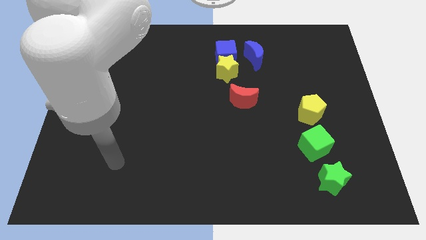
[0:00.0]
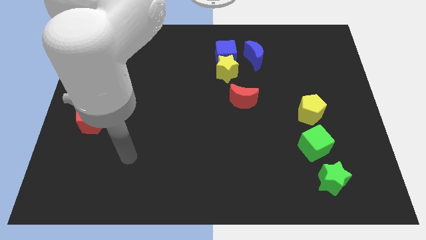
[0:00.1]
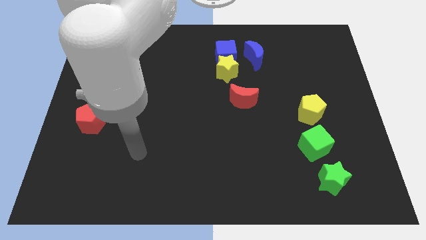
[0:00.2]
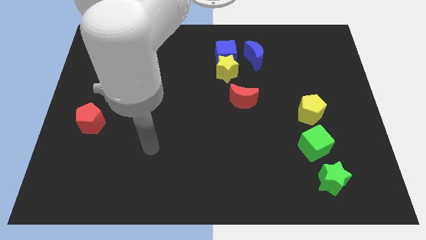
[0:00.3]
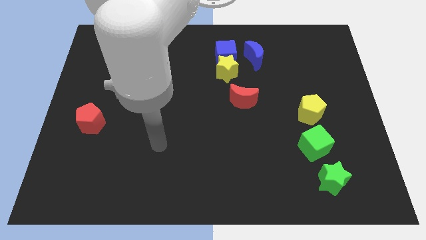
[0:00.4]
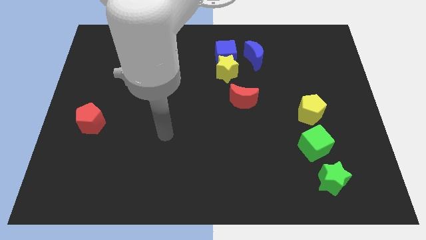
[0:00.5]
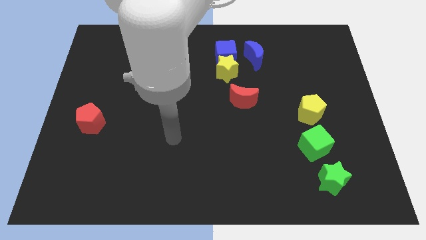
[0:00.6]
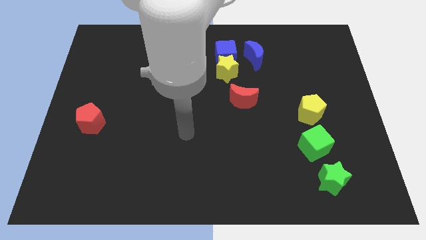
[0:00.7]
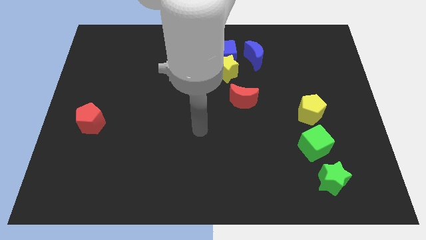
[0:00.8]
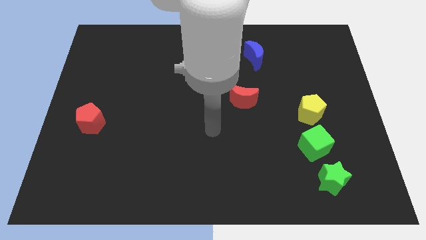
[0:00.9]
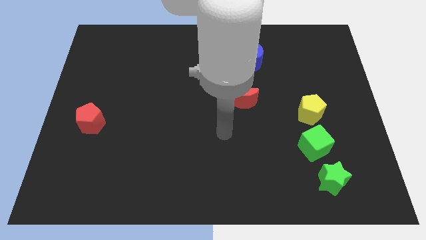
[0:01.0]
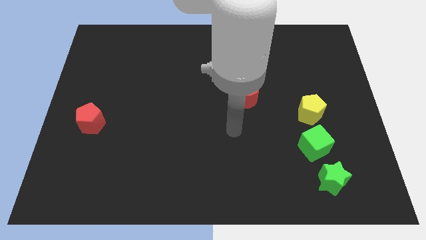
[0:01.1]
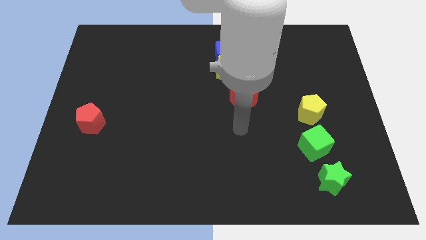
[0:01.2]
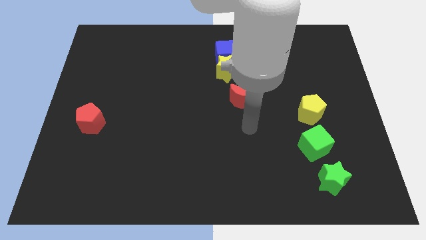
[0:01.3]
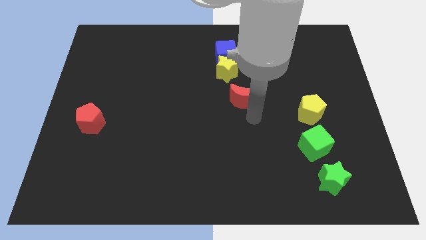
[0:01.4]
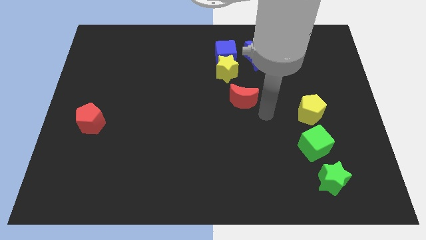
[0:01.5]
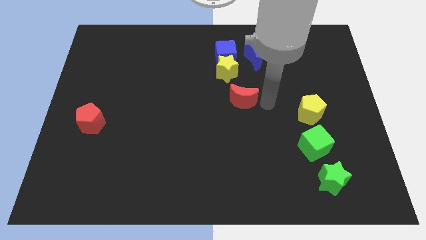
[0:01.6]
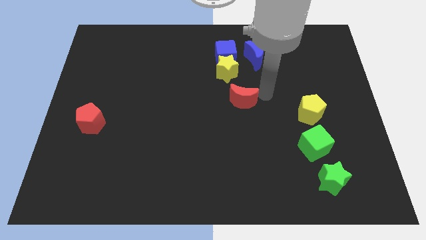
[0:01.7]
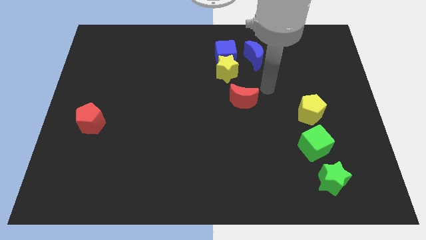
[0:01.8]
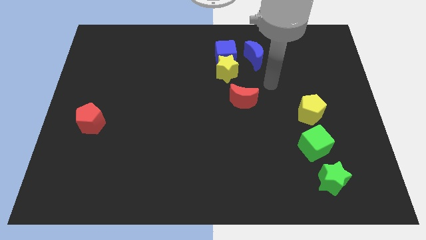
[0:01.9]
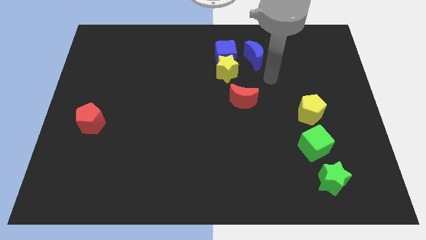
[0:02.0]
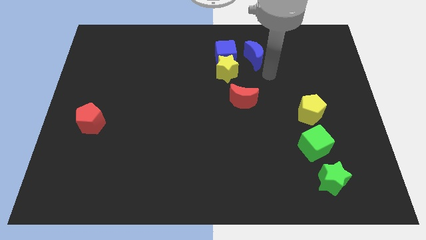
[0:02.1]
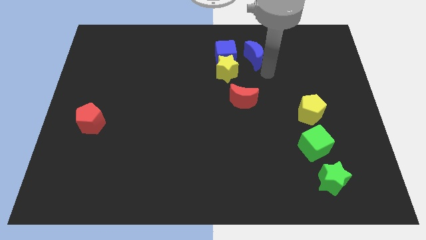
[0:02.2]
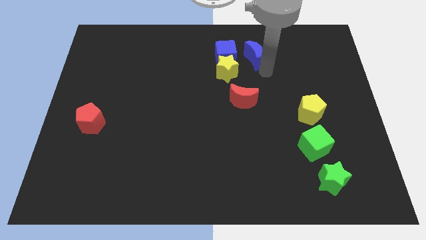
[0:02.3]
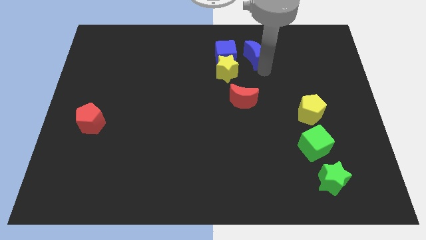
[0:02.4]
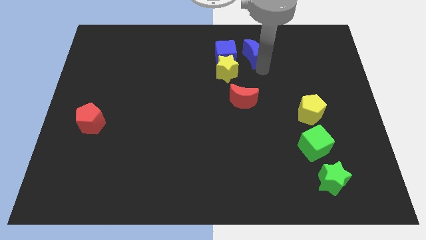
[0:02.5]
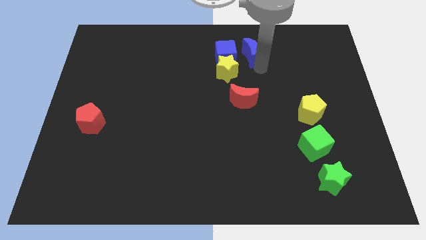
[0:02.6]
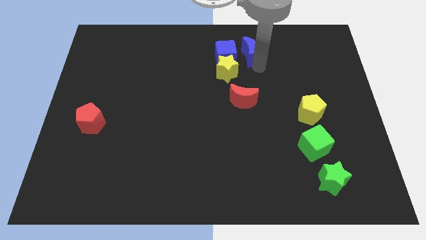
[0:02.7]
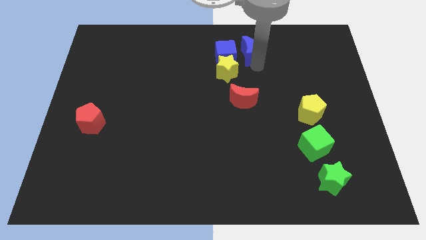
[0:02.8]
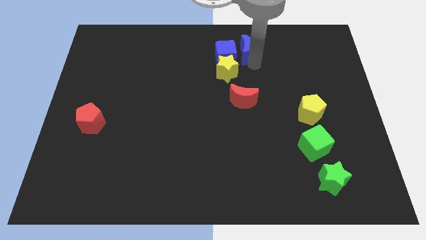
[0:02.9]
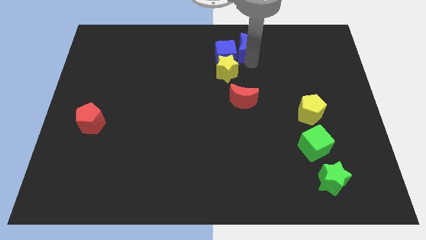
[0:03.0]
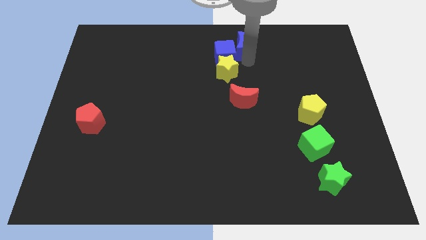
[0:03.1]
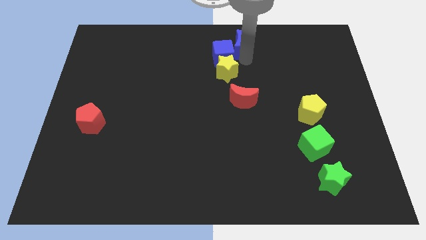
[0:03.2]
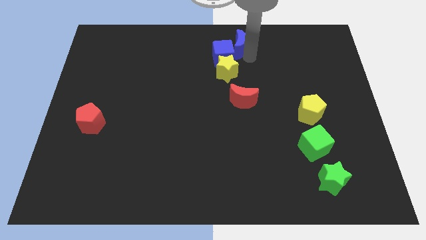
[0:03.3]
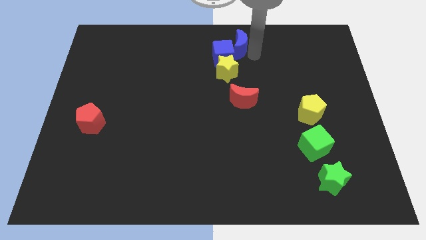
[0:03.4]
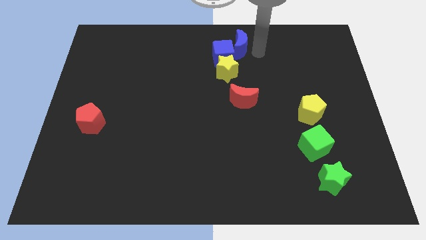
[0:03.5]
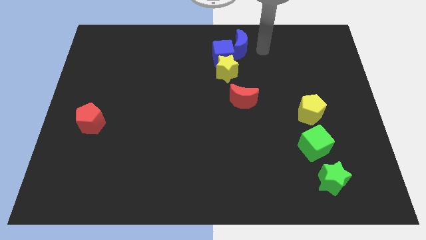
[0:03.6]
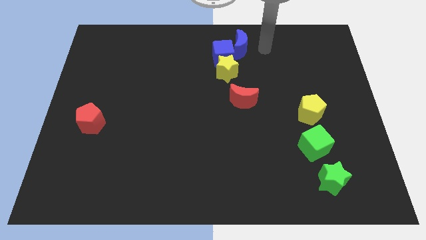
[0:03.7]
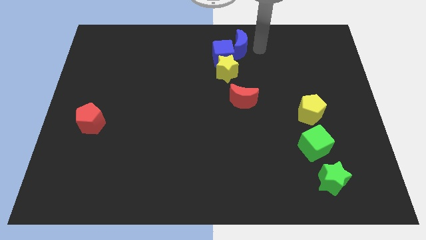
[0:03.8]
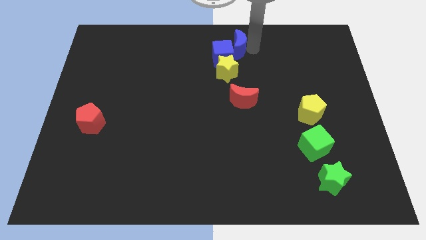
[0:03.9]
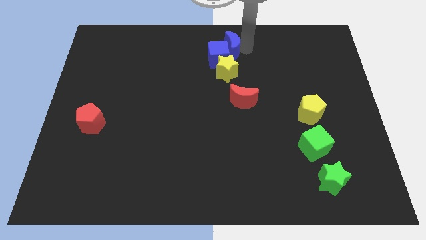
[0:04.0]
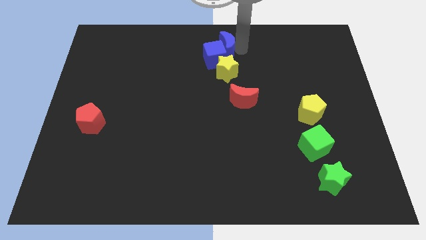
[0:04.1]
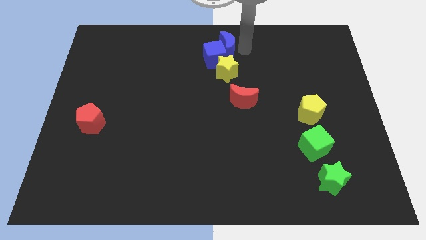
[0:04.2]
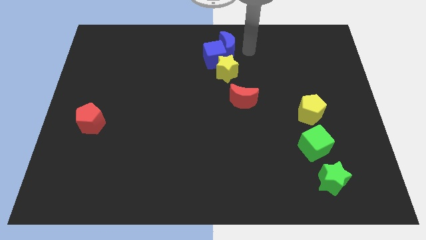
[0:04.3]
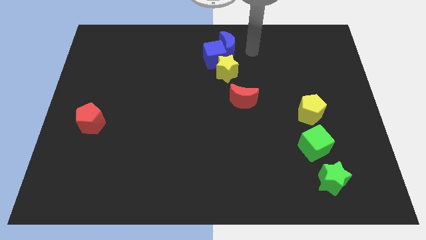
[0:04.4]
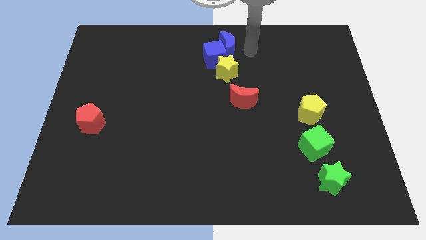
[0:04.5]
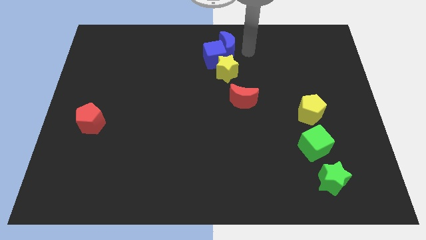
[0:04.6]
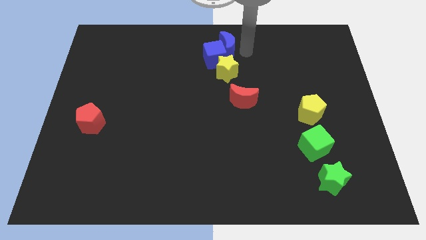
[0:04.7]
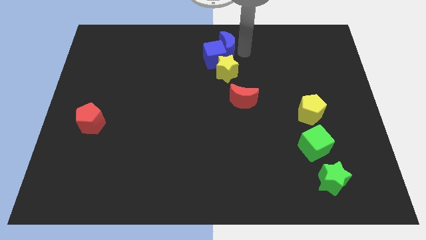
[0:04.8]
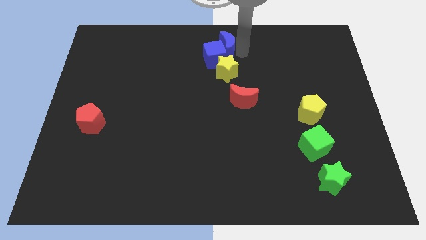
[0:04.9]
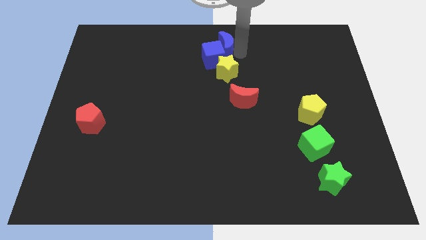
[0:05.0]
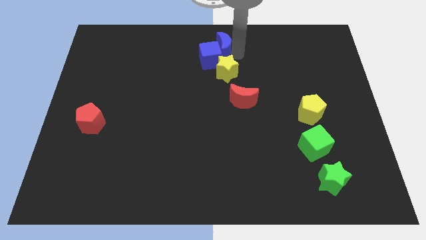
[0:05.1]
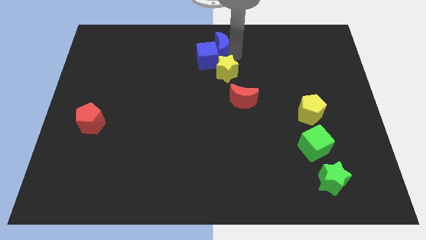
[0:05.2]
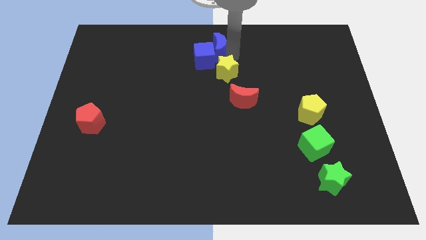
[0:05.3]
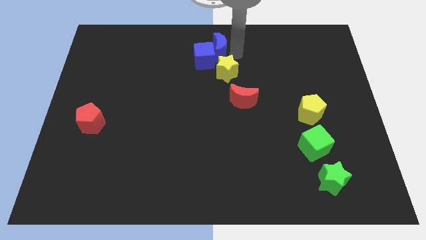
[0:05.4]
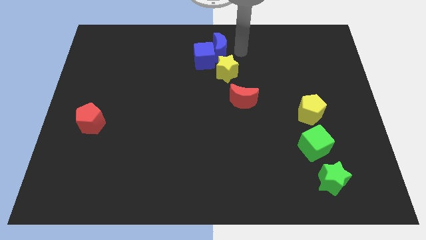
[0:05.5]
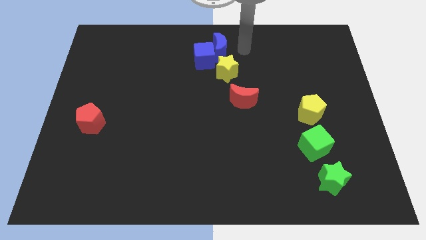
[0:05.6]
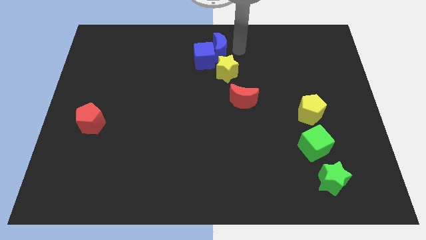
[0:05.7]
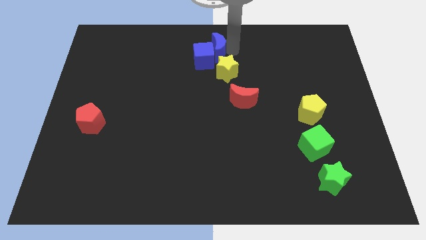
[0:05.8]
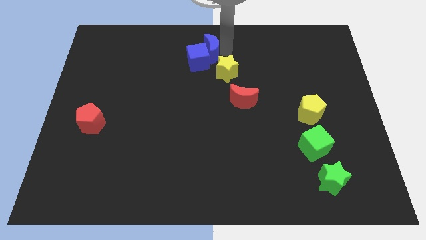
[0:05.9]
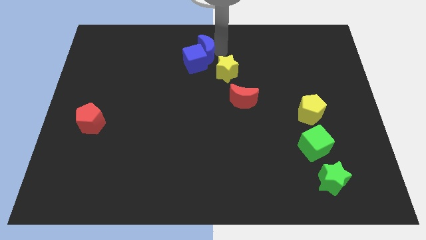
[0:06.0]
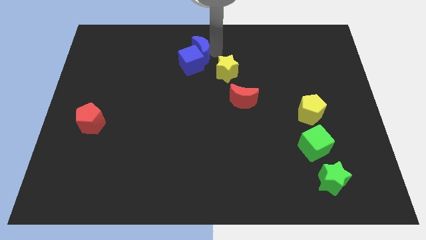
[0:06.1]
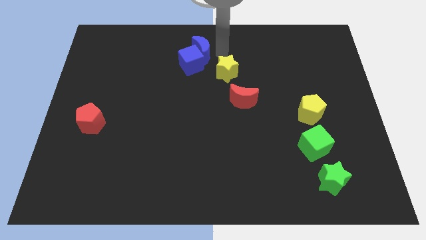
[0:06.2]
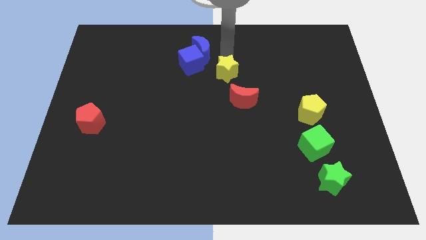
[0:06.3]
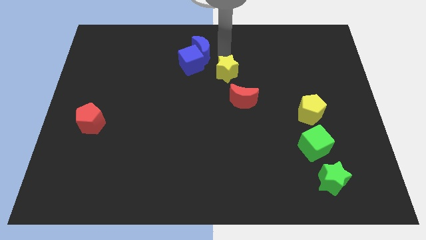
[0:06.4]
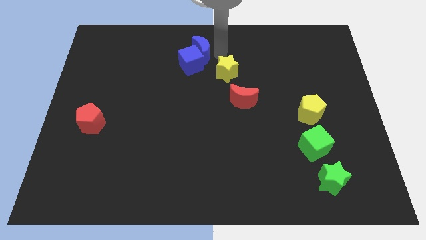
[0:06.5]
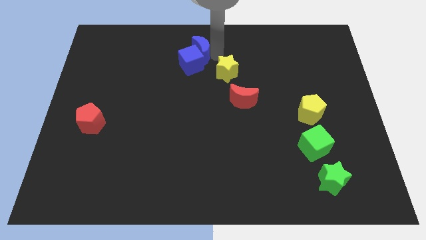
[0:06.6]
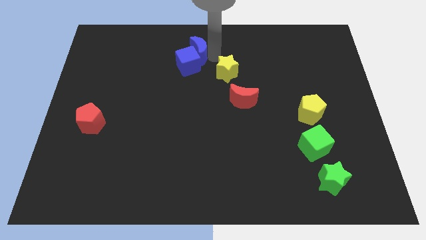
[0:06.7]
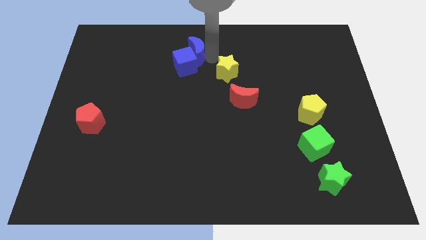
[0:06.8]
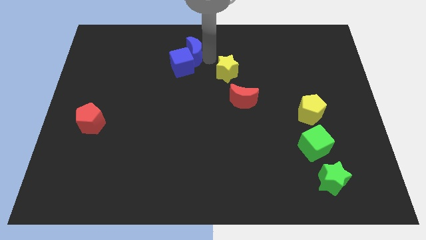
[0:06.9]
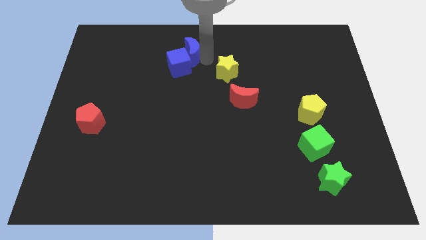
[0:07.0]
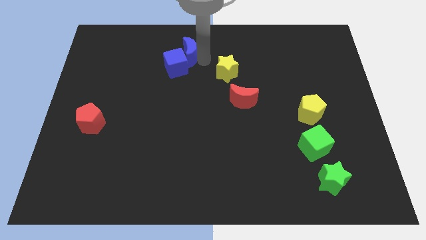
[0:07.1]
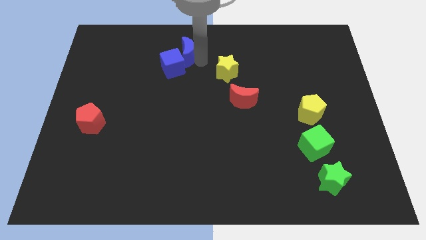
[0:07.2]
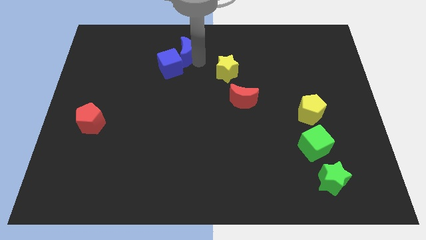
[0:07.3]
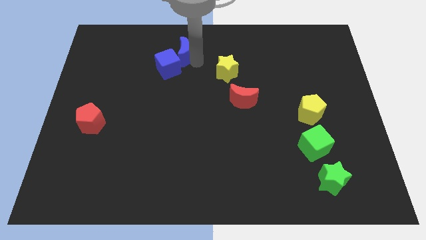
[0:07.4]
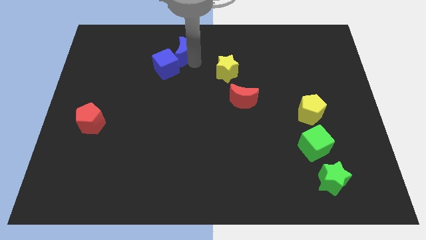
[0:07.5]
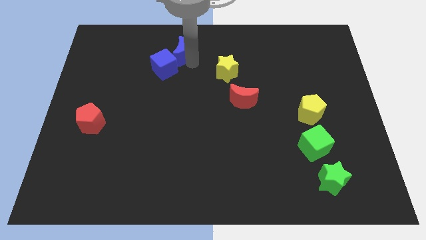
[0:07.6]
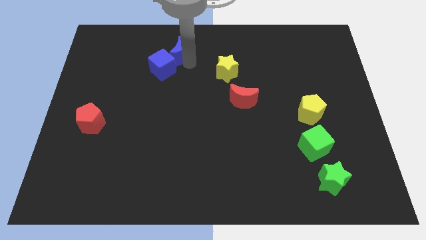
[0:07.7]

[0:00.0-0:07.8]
push the blue moon left

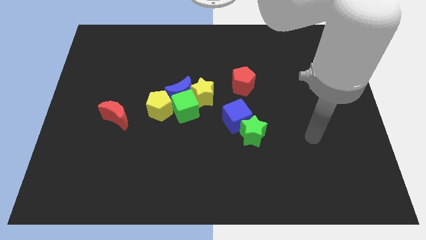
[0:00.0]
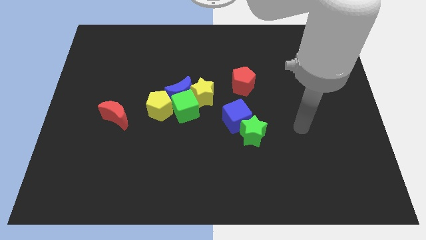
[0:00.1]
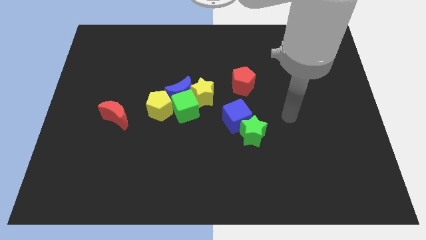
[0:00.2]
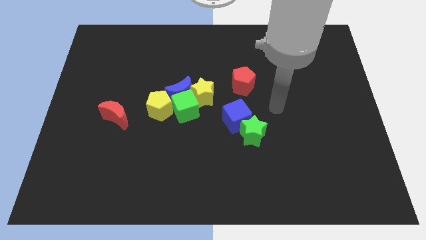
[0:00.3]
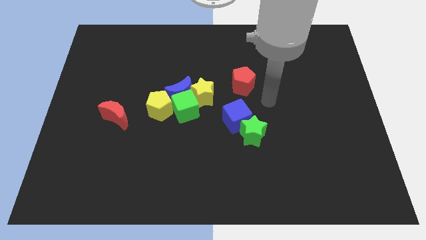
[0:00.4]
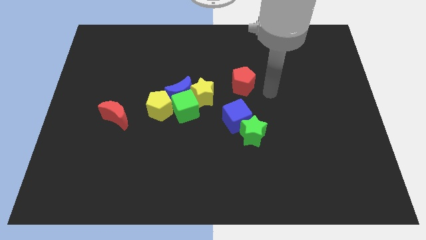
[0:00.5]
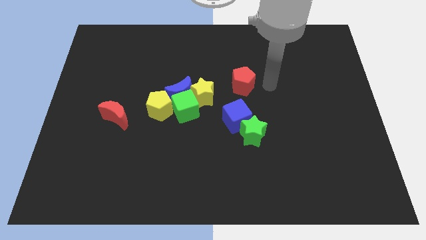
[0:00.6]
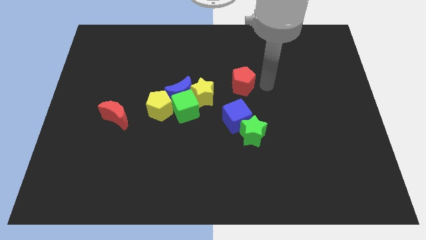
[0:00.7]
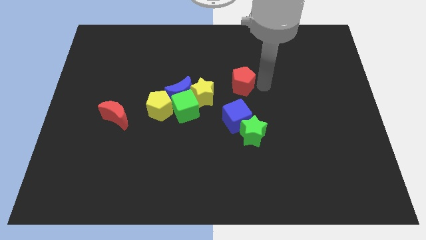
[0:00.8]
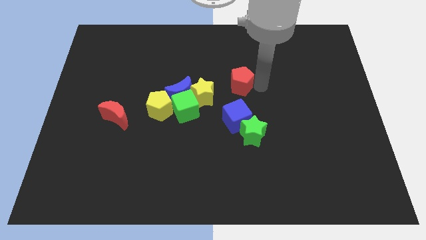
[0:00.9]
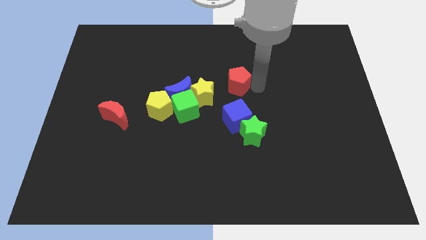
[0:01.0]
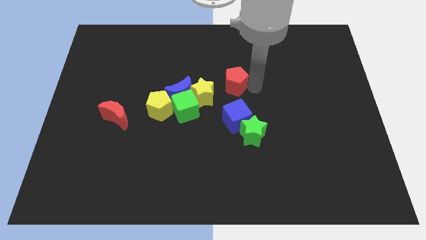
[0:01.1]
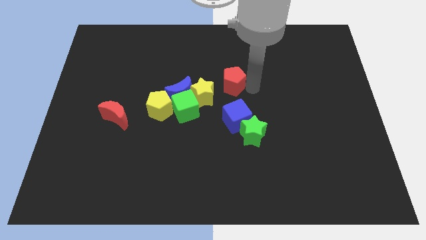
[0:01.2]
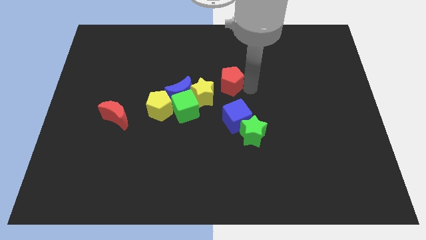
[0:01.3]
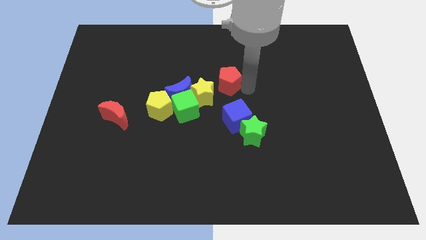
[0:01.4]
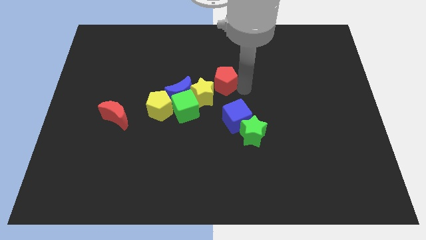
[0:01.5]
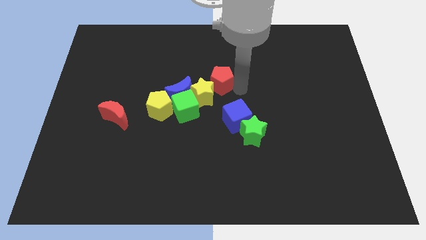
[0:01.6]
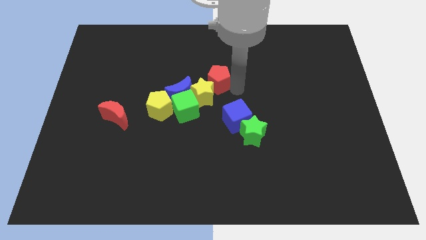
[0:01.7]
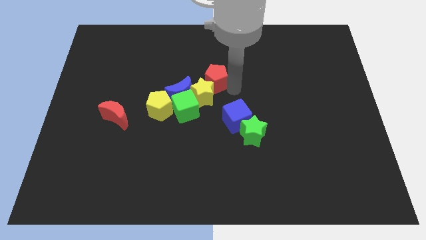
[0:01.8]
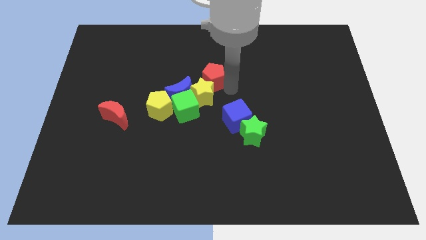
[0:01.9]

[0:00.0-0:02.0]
move the red pentagon a little bit left
